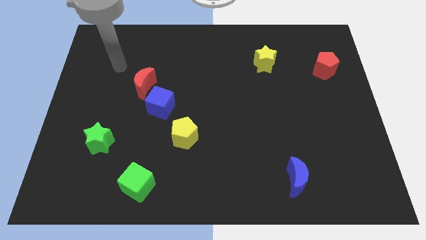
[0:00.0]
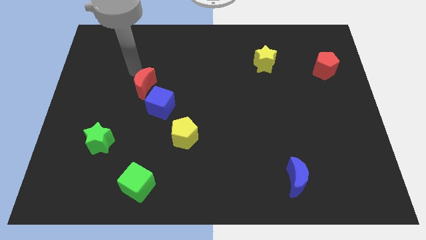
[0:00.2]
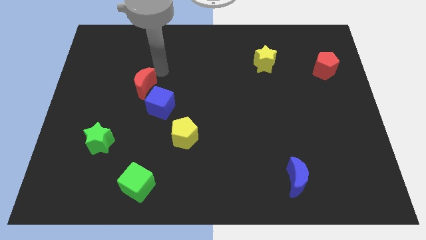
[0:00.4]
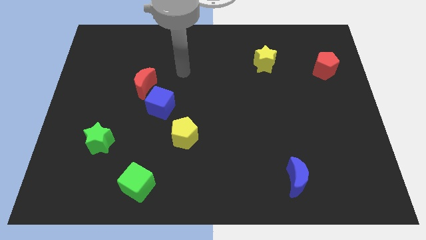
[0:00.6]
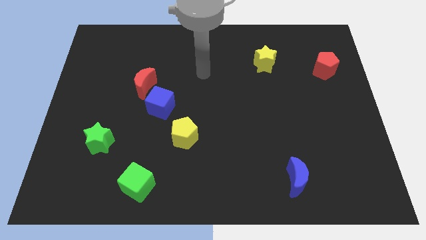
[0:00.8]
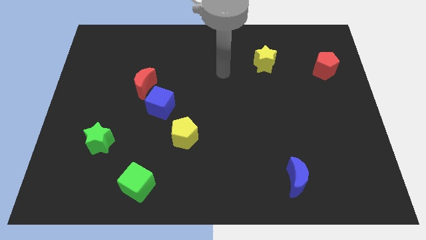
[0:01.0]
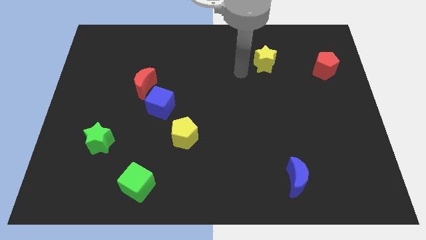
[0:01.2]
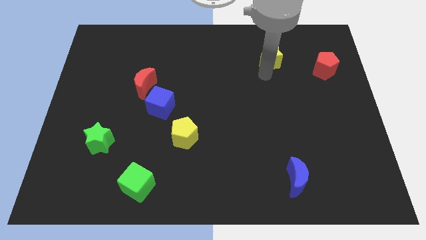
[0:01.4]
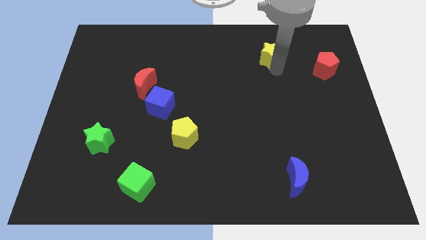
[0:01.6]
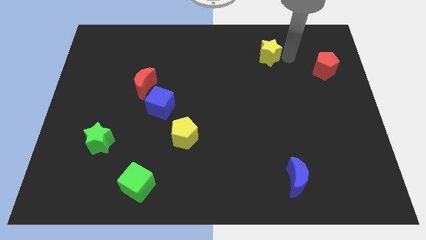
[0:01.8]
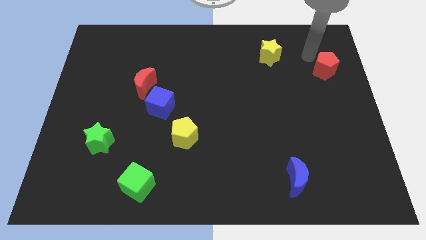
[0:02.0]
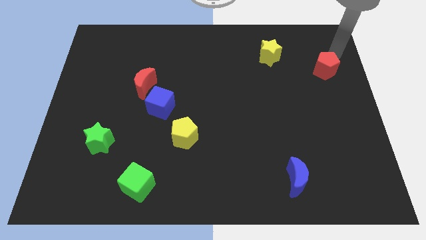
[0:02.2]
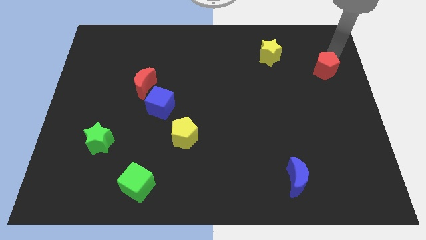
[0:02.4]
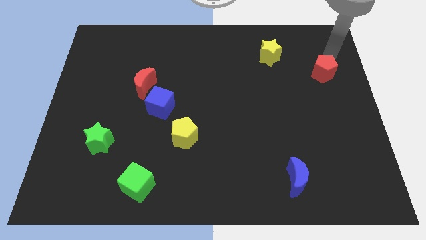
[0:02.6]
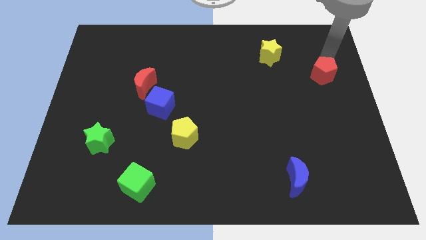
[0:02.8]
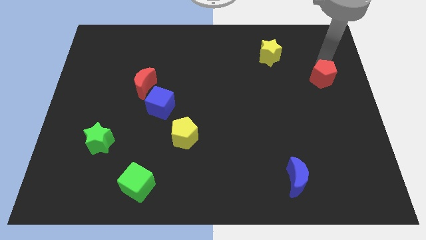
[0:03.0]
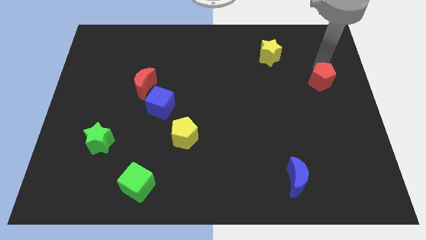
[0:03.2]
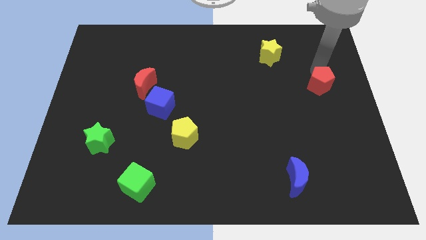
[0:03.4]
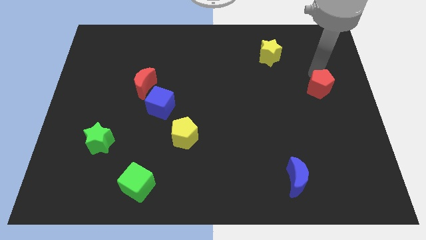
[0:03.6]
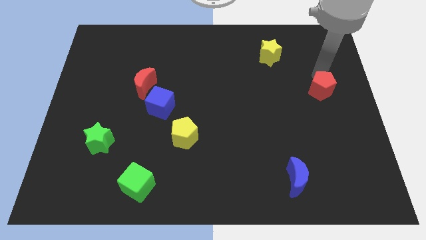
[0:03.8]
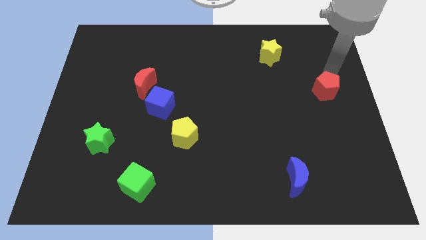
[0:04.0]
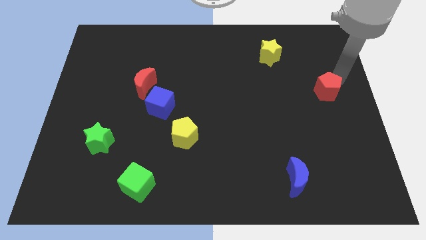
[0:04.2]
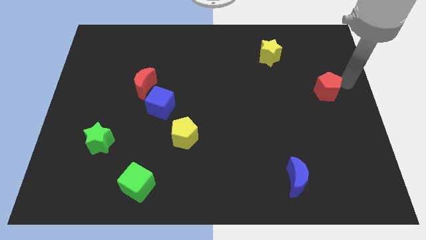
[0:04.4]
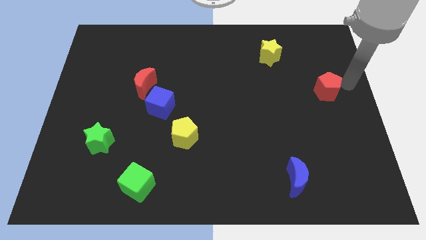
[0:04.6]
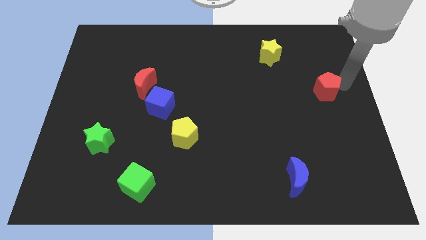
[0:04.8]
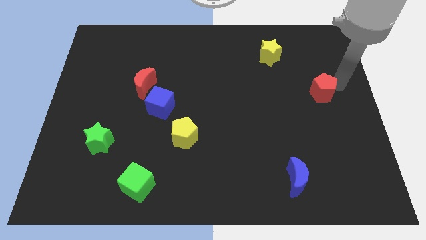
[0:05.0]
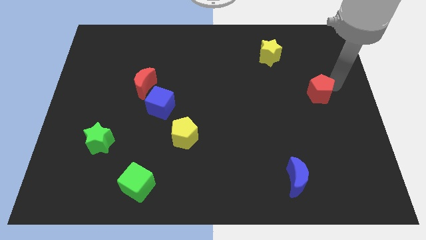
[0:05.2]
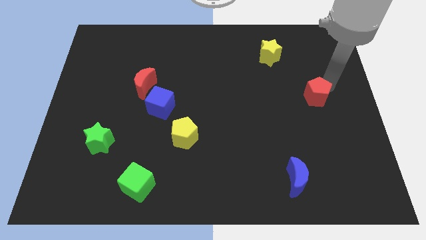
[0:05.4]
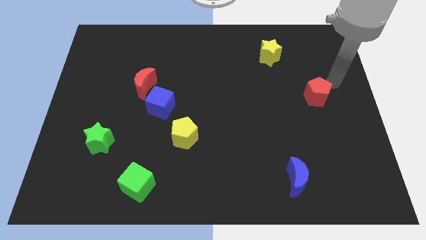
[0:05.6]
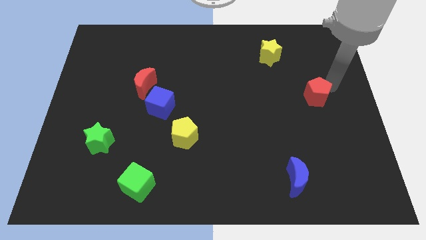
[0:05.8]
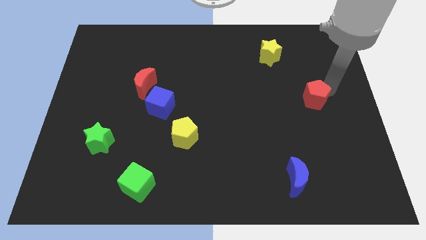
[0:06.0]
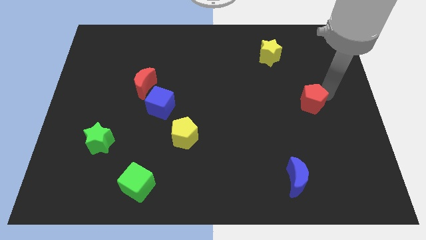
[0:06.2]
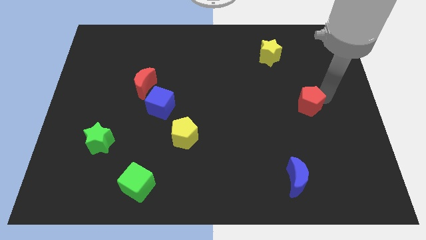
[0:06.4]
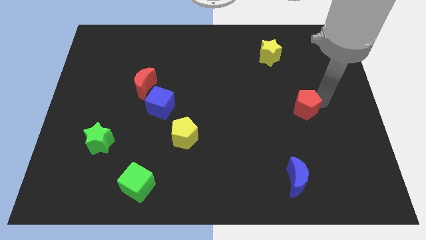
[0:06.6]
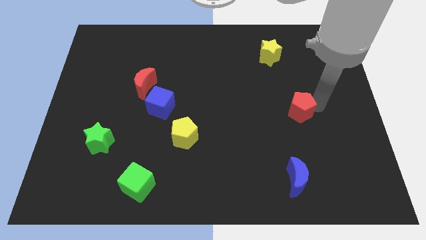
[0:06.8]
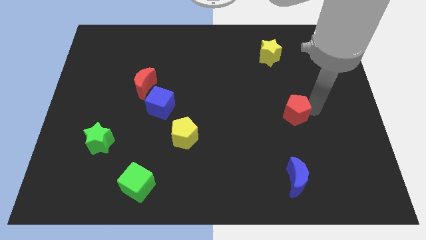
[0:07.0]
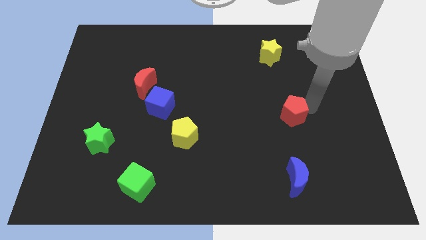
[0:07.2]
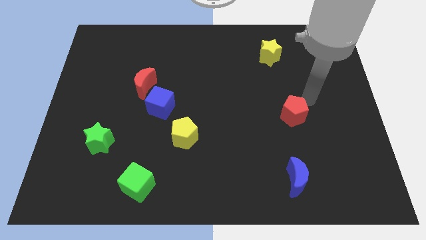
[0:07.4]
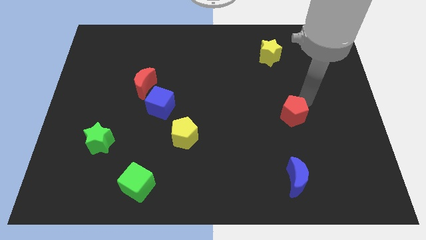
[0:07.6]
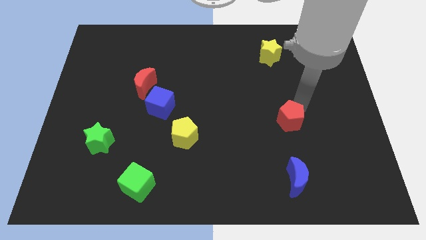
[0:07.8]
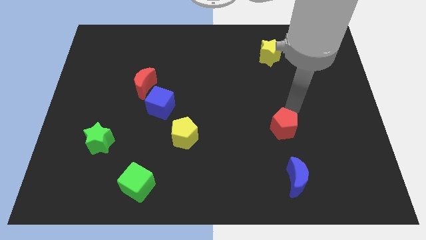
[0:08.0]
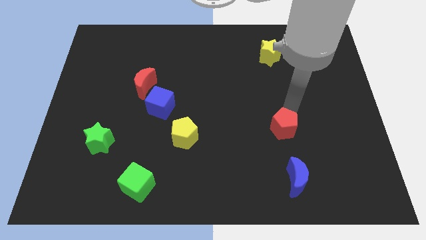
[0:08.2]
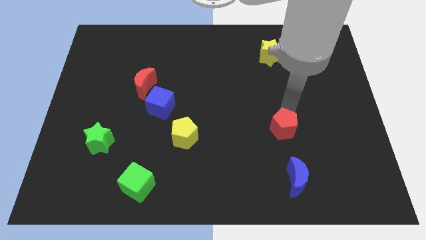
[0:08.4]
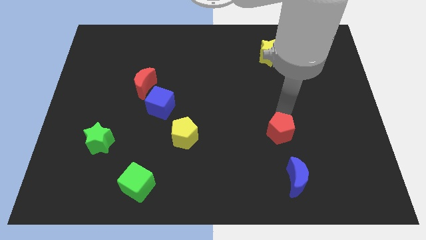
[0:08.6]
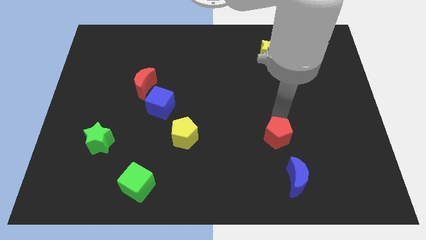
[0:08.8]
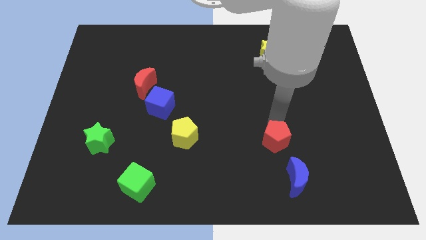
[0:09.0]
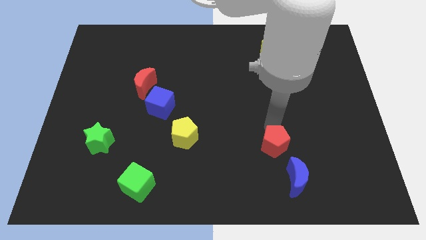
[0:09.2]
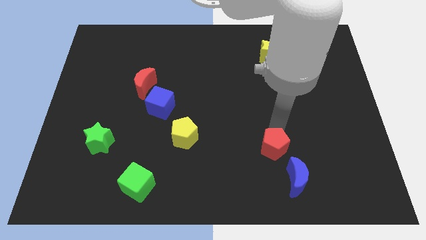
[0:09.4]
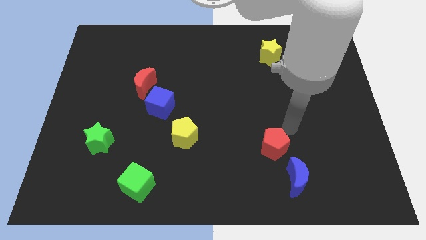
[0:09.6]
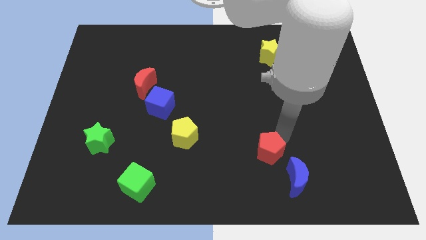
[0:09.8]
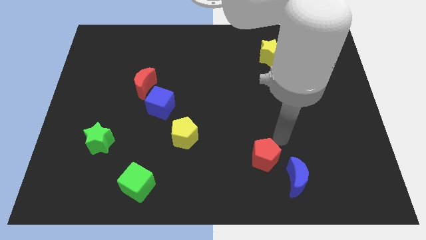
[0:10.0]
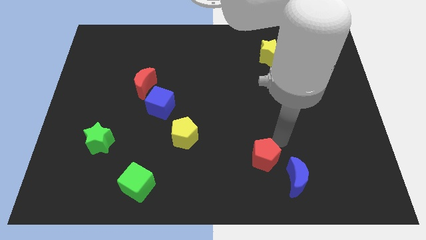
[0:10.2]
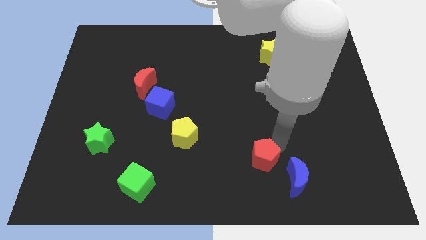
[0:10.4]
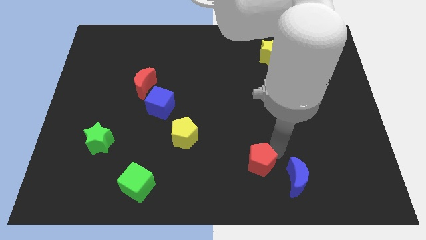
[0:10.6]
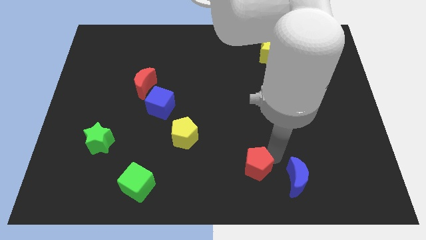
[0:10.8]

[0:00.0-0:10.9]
slide the red pentagon to the bottom

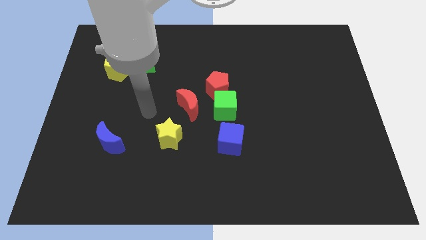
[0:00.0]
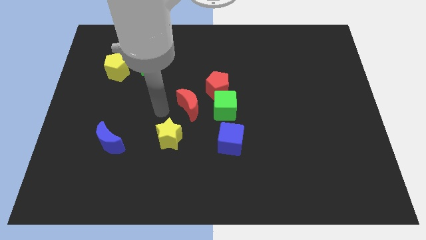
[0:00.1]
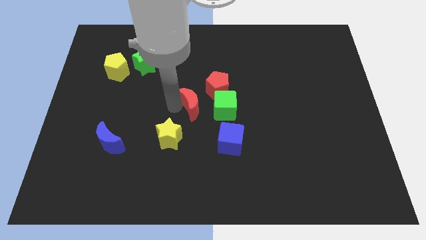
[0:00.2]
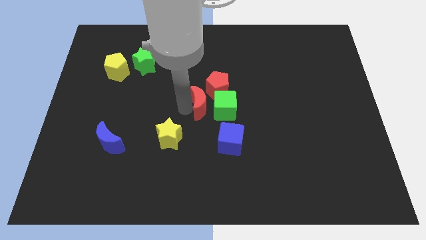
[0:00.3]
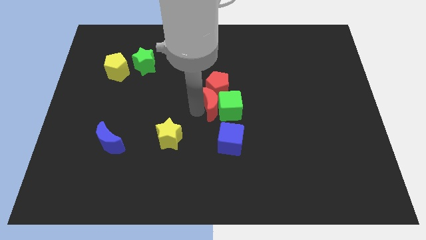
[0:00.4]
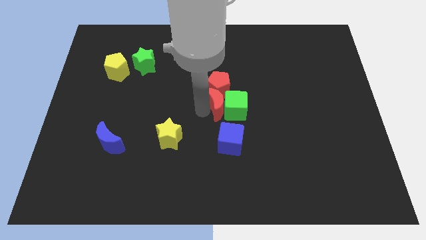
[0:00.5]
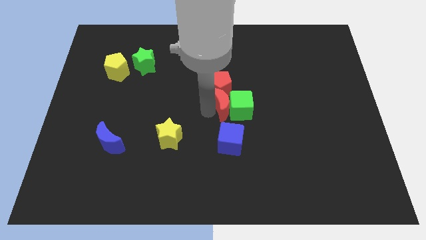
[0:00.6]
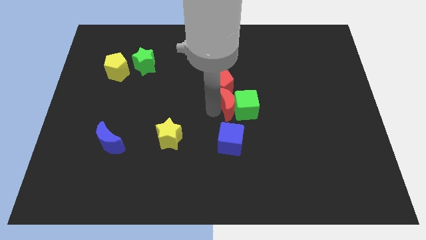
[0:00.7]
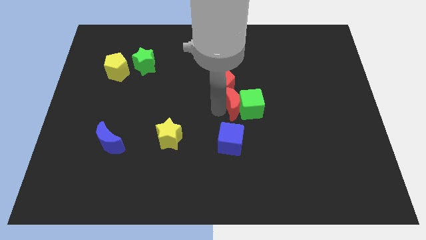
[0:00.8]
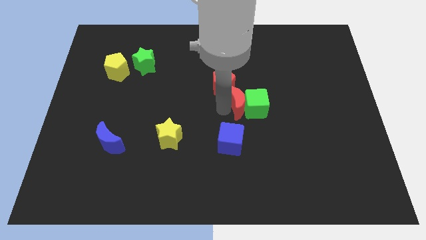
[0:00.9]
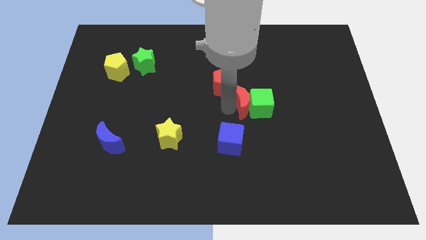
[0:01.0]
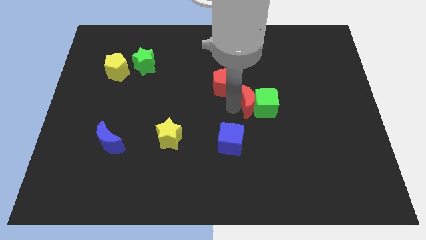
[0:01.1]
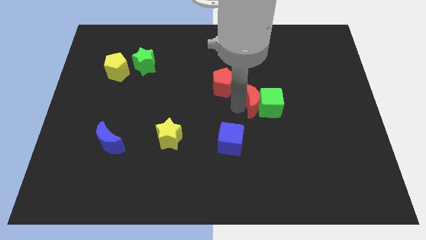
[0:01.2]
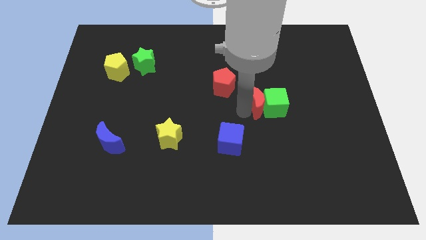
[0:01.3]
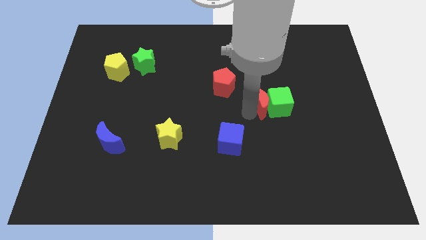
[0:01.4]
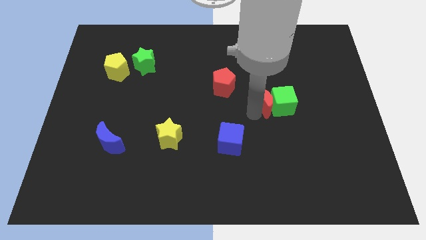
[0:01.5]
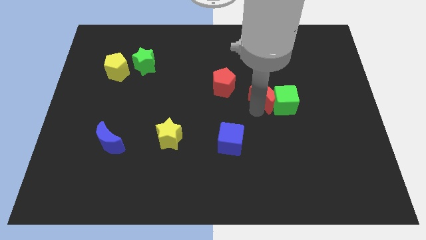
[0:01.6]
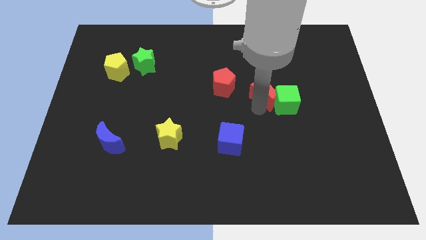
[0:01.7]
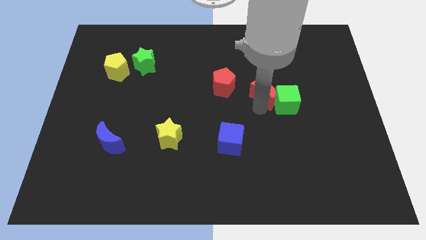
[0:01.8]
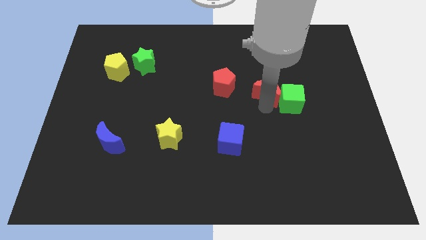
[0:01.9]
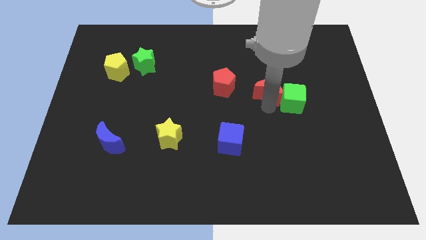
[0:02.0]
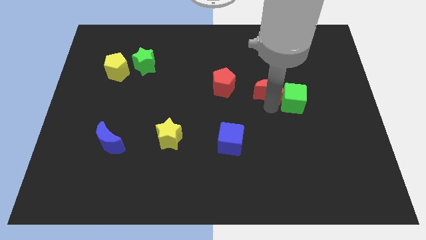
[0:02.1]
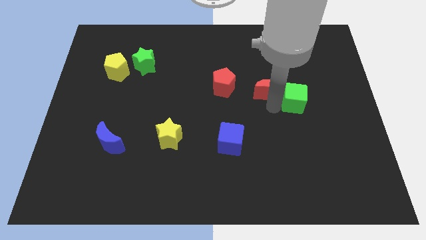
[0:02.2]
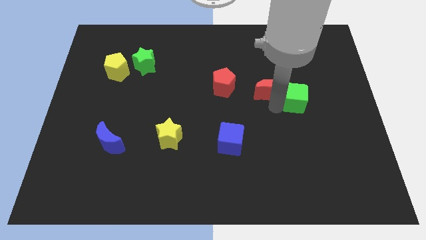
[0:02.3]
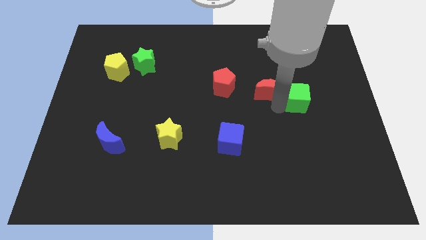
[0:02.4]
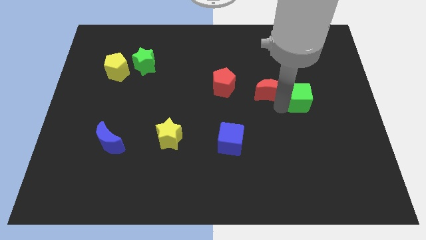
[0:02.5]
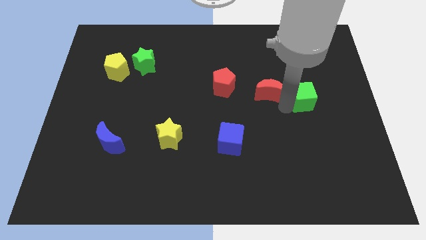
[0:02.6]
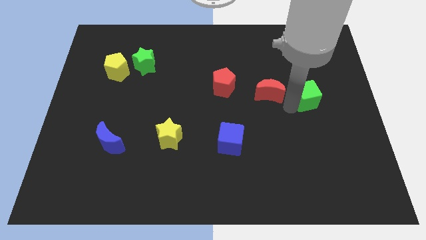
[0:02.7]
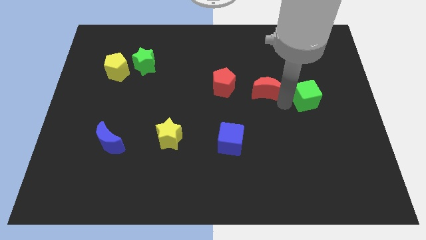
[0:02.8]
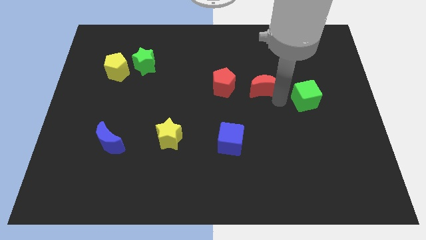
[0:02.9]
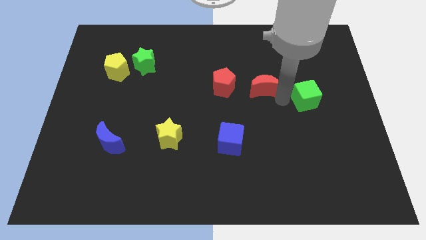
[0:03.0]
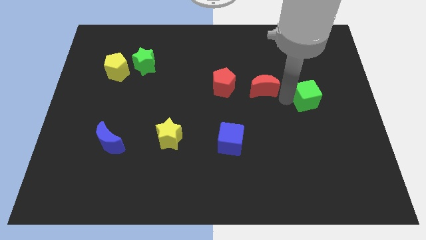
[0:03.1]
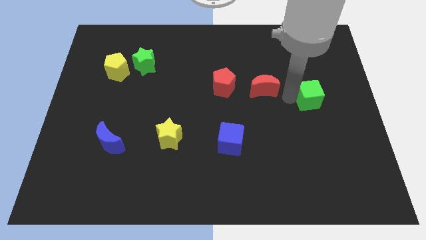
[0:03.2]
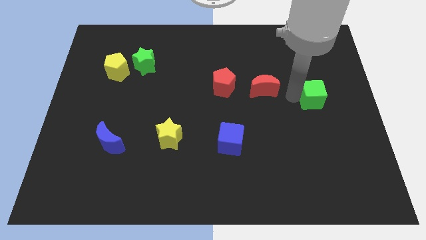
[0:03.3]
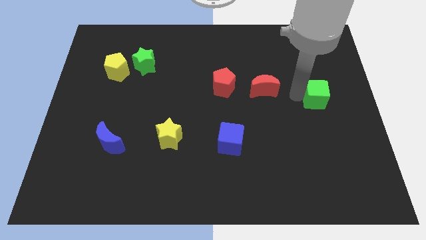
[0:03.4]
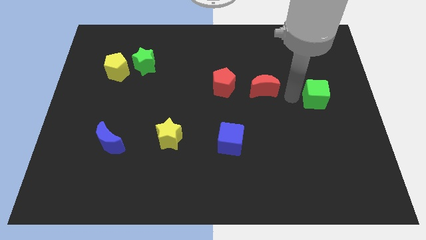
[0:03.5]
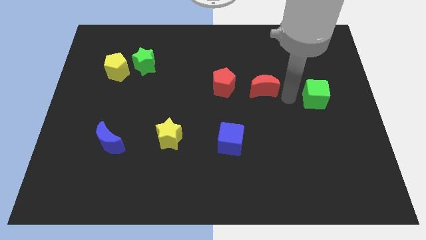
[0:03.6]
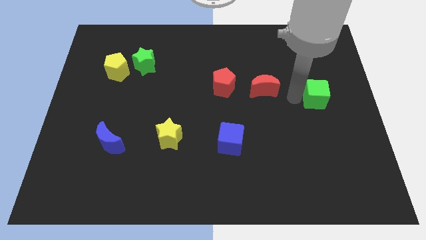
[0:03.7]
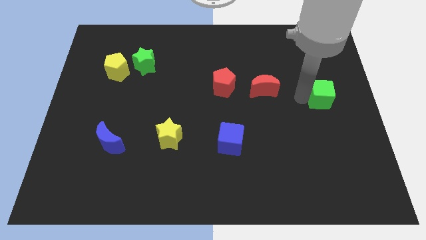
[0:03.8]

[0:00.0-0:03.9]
slide the green cube to the right side
